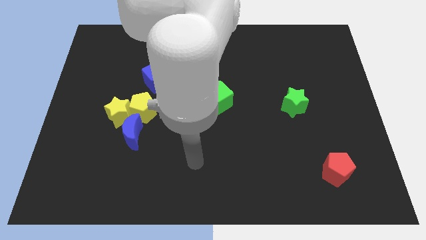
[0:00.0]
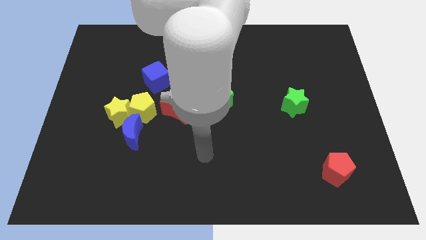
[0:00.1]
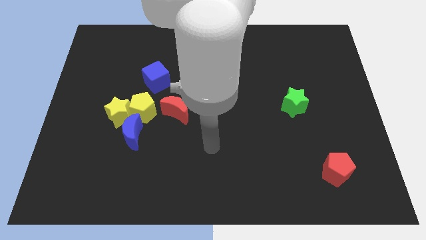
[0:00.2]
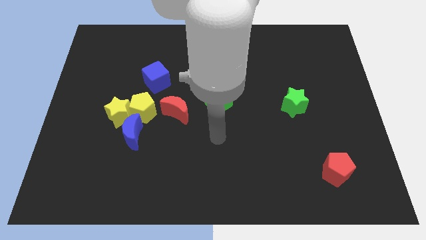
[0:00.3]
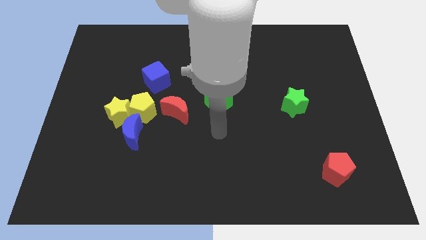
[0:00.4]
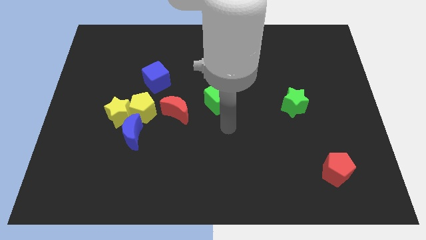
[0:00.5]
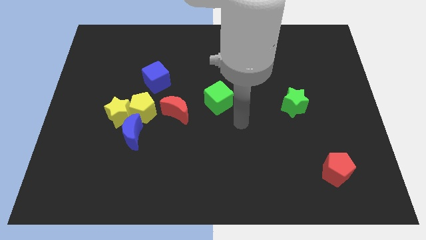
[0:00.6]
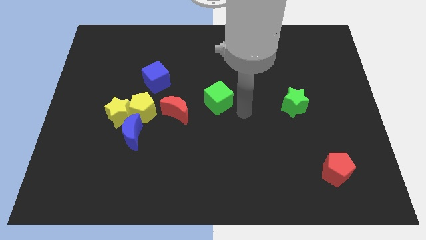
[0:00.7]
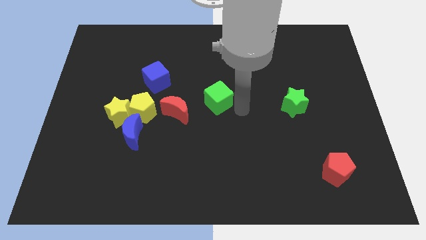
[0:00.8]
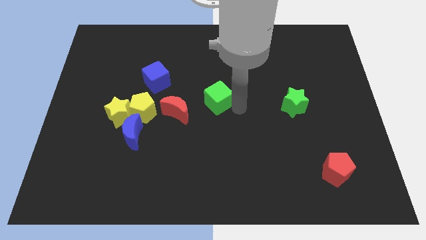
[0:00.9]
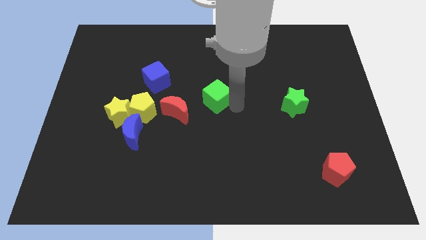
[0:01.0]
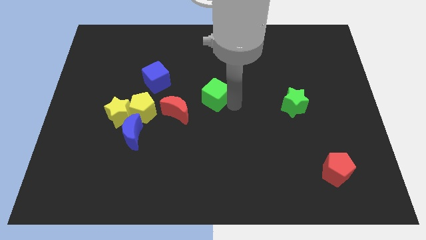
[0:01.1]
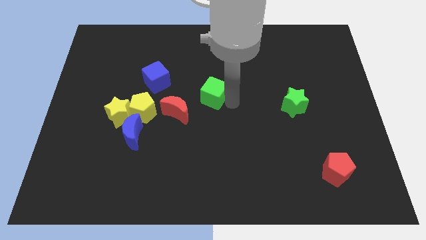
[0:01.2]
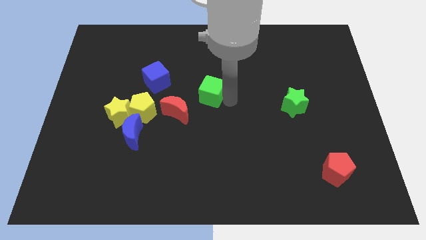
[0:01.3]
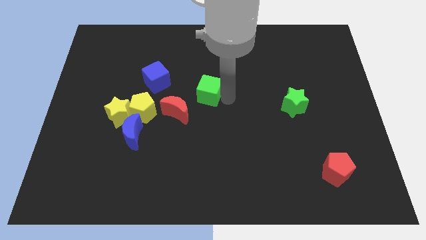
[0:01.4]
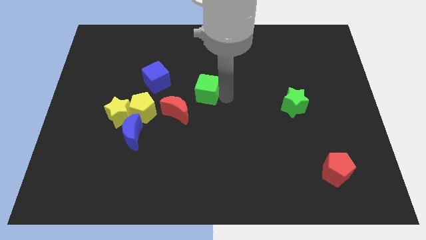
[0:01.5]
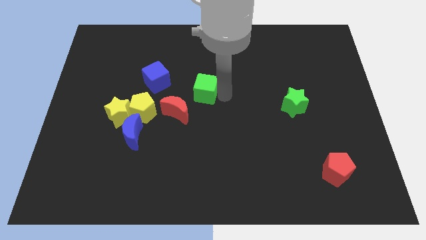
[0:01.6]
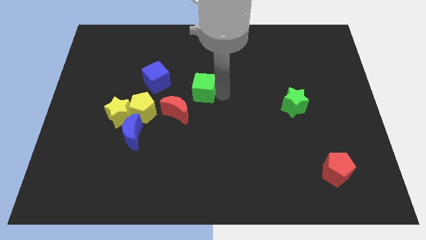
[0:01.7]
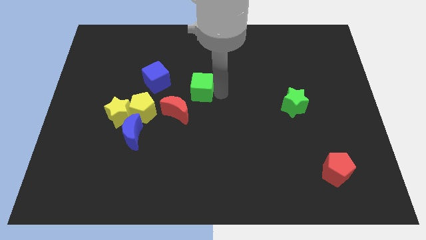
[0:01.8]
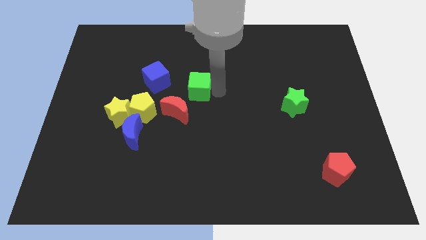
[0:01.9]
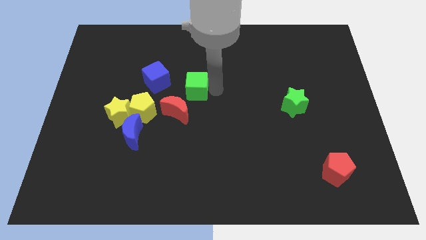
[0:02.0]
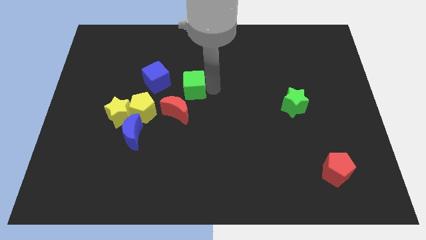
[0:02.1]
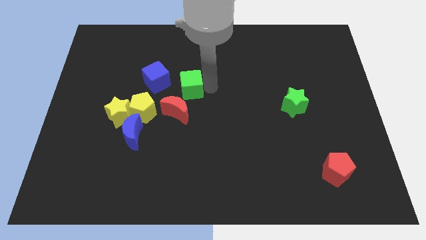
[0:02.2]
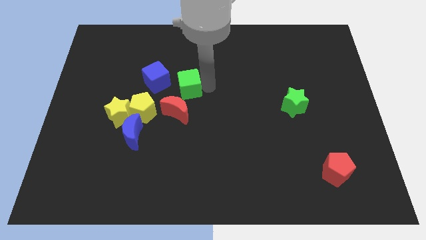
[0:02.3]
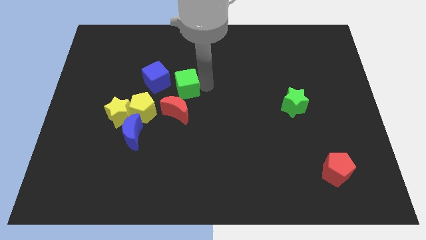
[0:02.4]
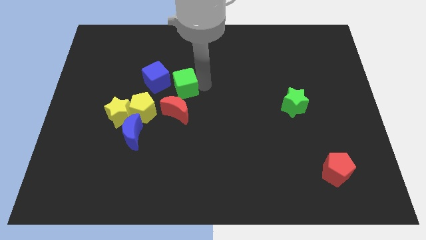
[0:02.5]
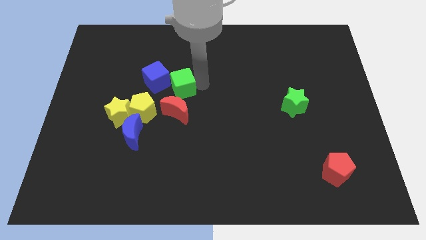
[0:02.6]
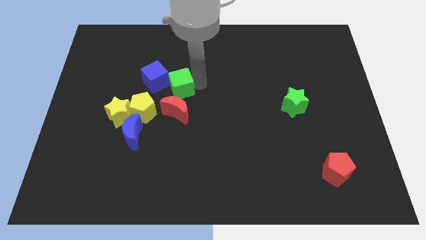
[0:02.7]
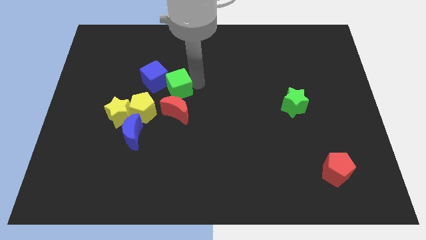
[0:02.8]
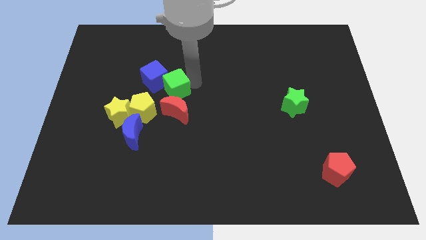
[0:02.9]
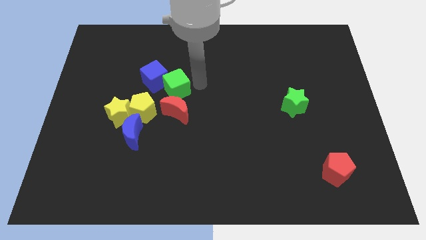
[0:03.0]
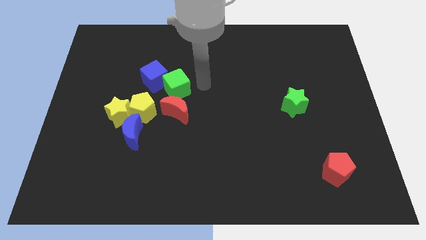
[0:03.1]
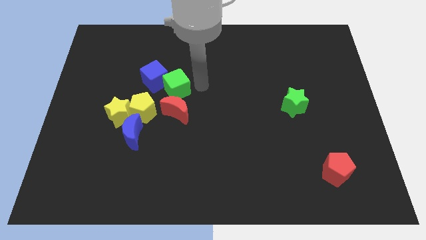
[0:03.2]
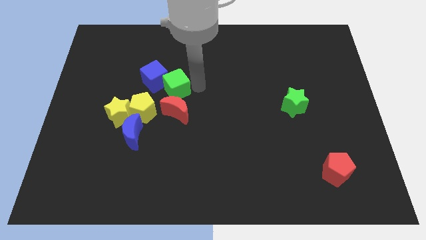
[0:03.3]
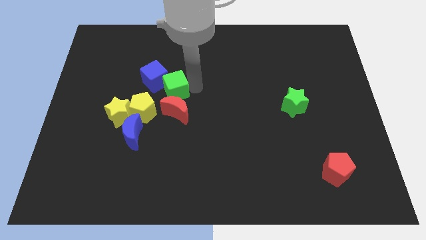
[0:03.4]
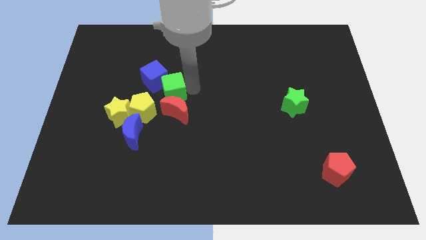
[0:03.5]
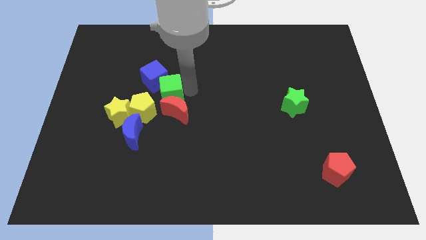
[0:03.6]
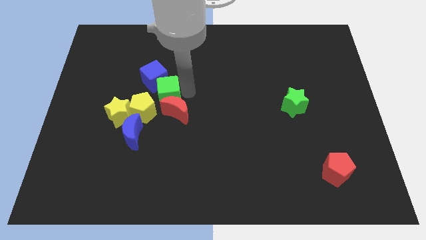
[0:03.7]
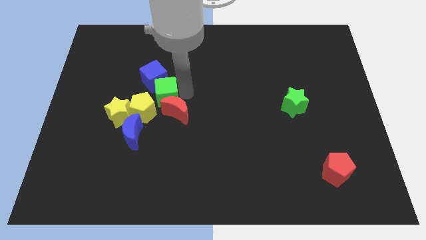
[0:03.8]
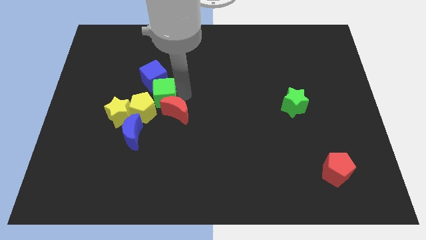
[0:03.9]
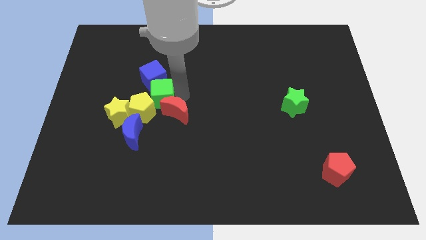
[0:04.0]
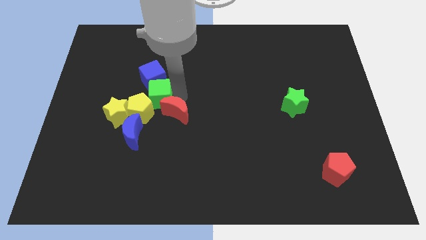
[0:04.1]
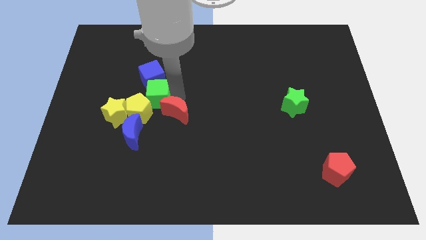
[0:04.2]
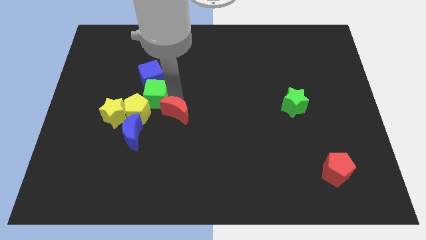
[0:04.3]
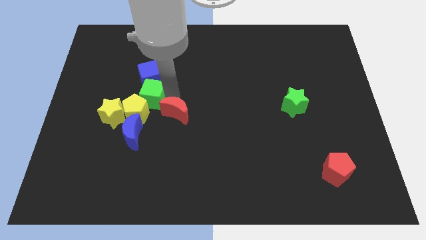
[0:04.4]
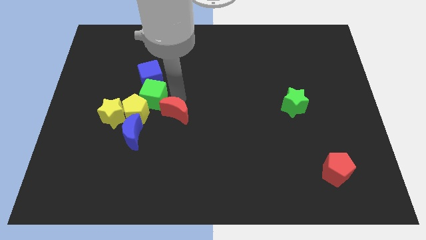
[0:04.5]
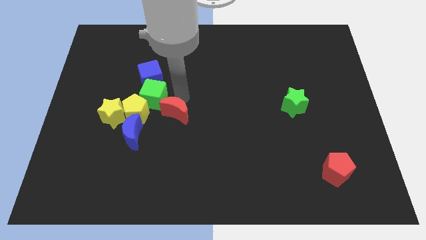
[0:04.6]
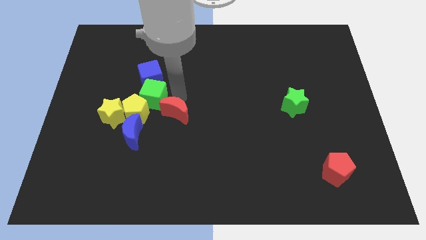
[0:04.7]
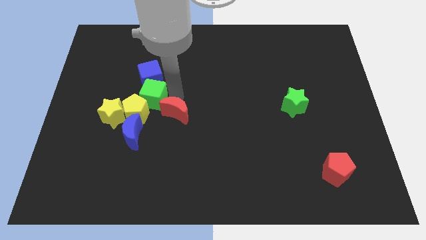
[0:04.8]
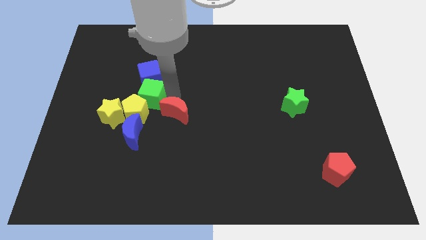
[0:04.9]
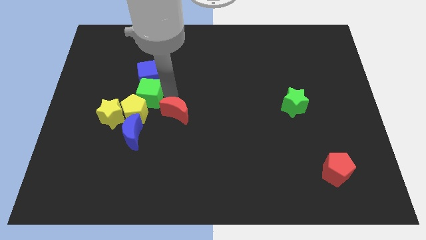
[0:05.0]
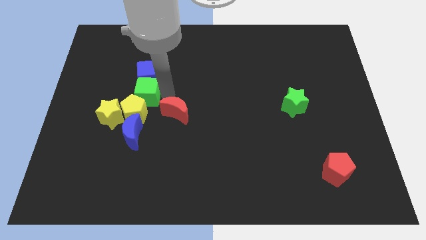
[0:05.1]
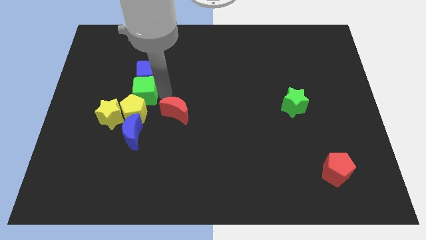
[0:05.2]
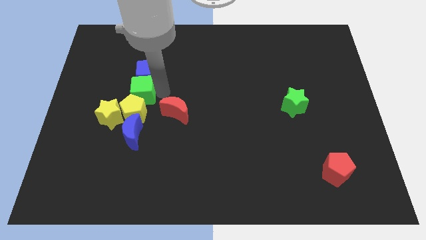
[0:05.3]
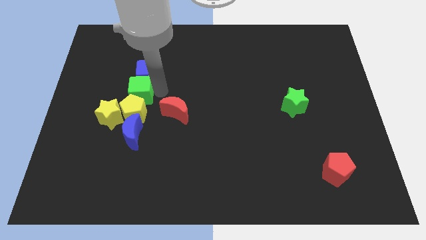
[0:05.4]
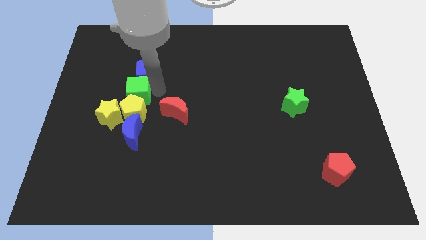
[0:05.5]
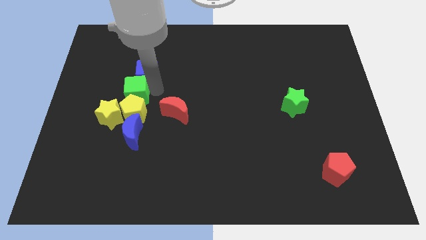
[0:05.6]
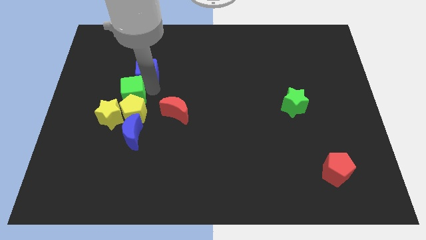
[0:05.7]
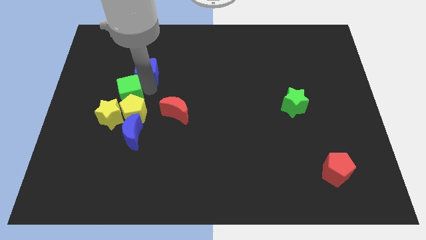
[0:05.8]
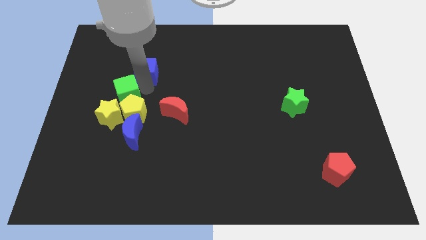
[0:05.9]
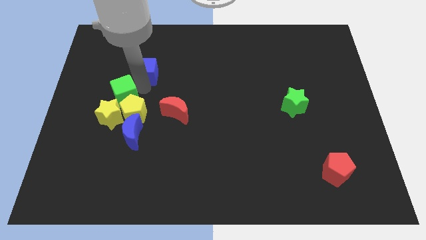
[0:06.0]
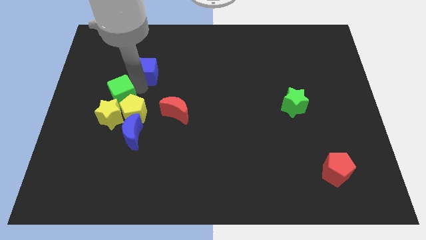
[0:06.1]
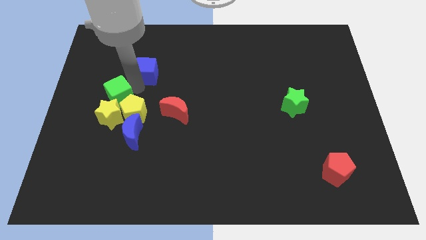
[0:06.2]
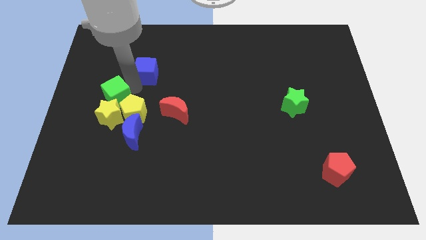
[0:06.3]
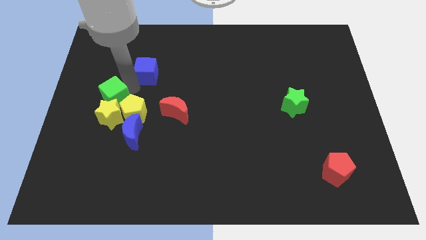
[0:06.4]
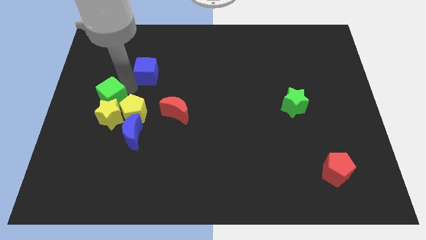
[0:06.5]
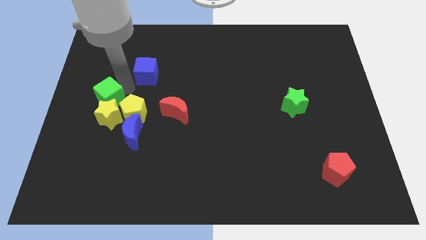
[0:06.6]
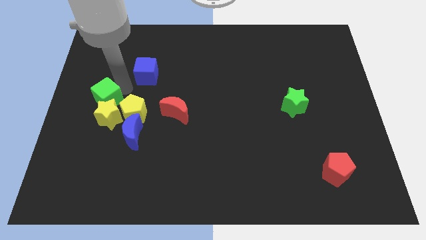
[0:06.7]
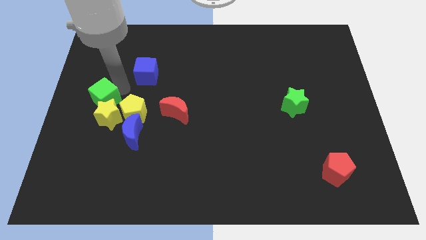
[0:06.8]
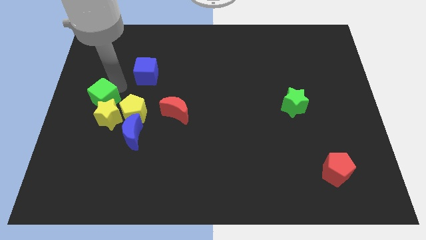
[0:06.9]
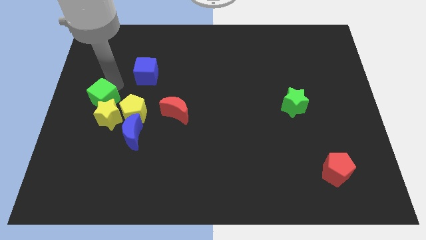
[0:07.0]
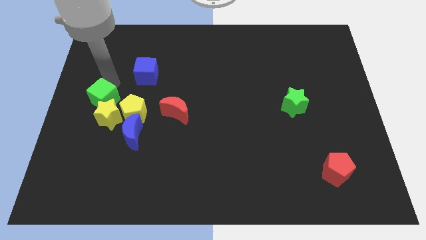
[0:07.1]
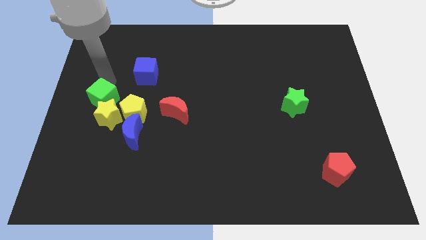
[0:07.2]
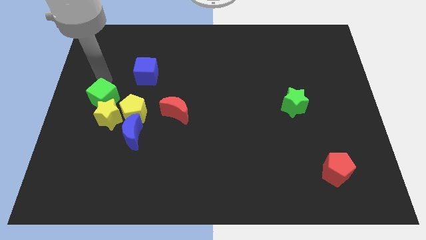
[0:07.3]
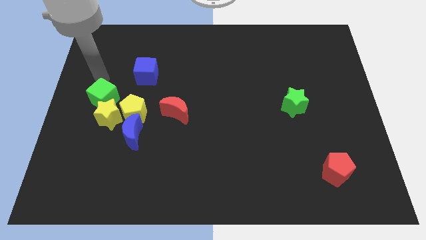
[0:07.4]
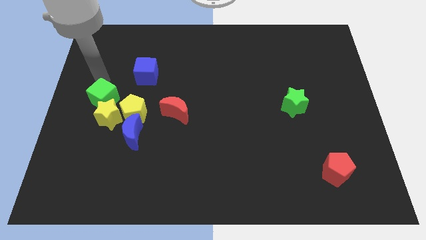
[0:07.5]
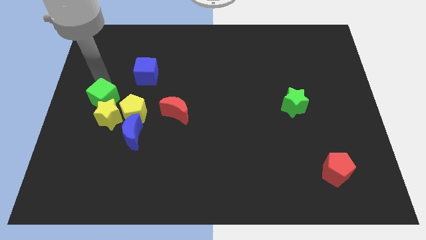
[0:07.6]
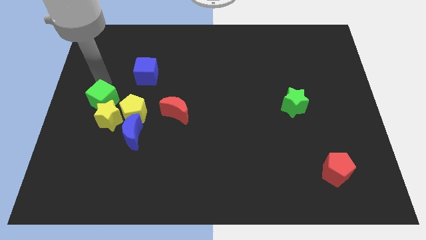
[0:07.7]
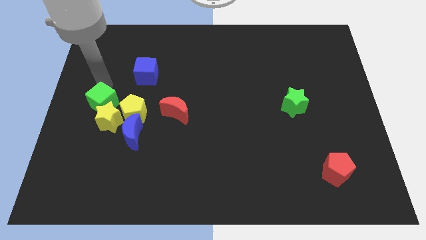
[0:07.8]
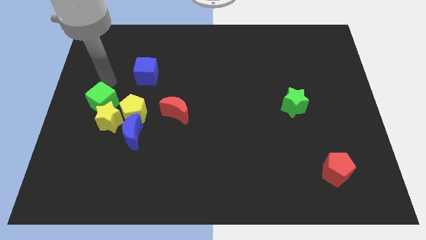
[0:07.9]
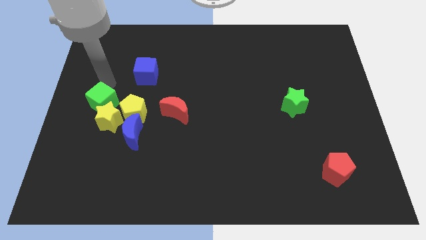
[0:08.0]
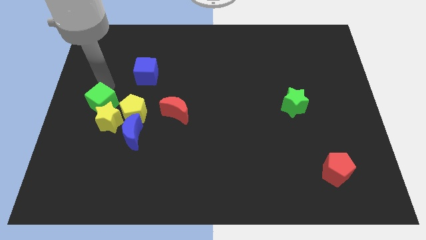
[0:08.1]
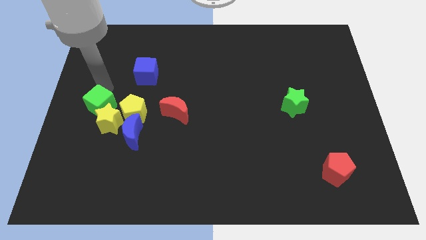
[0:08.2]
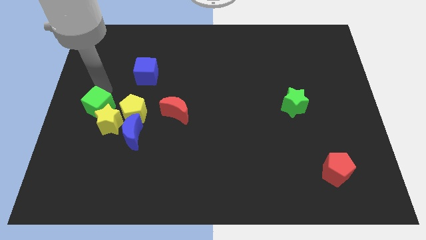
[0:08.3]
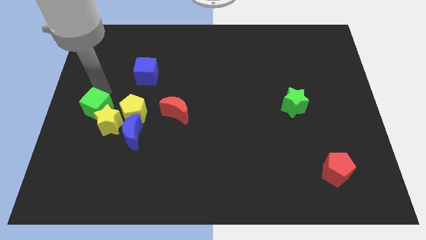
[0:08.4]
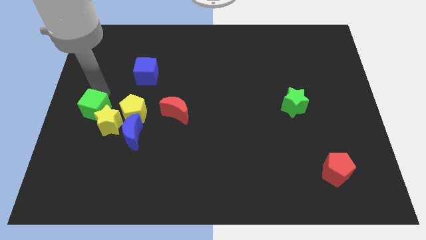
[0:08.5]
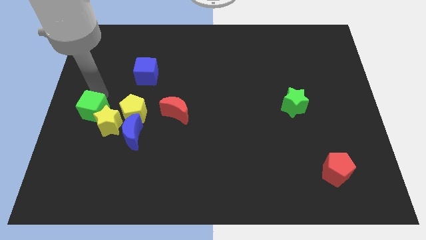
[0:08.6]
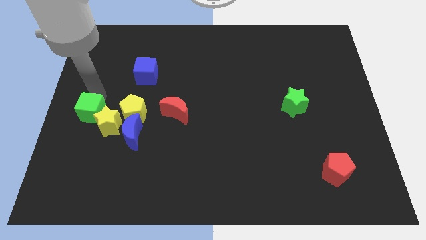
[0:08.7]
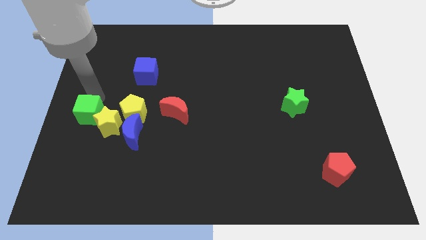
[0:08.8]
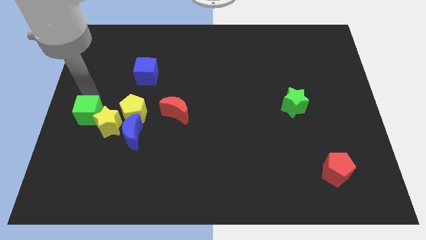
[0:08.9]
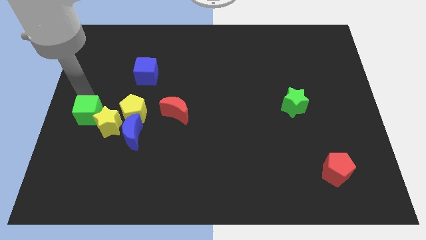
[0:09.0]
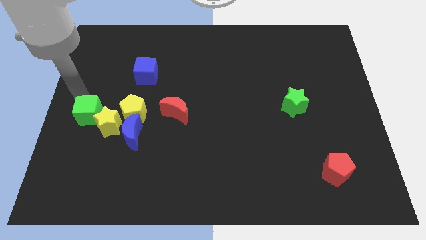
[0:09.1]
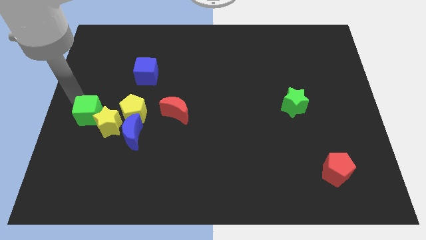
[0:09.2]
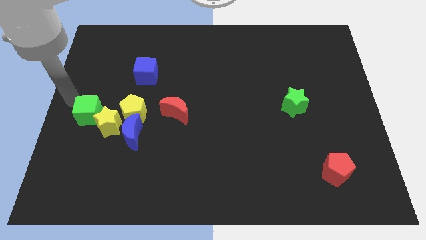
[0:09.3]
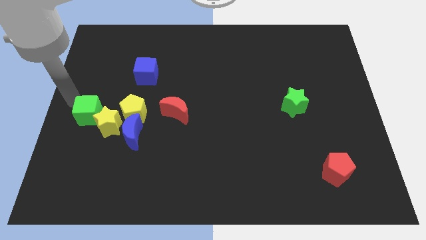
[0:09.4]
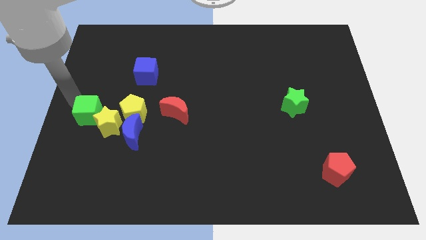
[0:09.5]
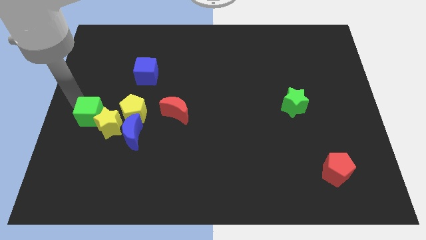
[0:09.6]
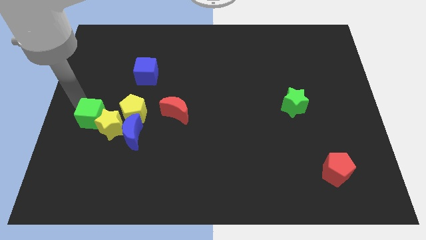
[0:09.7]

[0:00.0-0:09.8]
push the green cube to the left side of the blue moon
